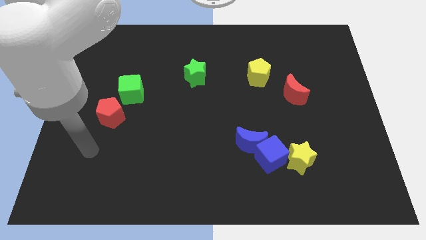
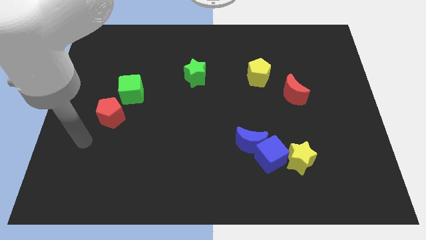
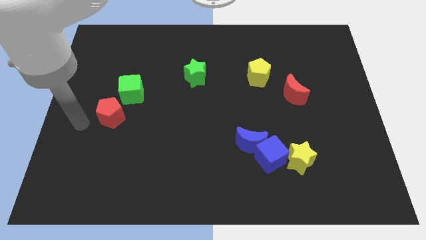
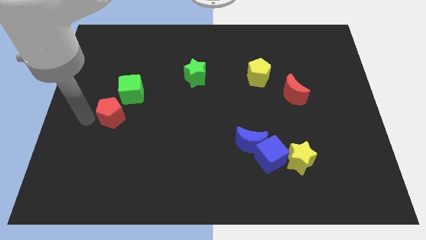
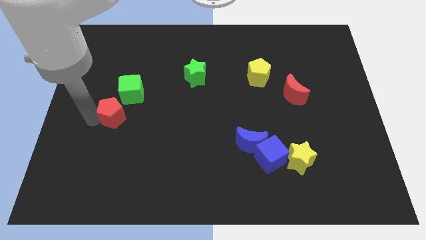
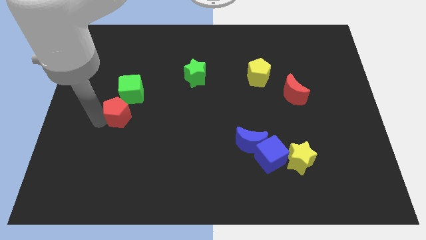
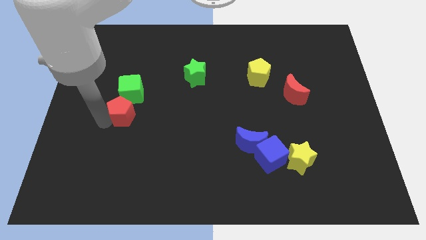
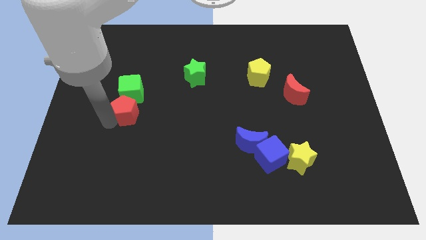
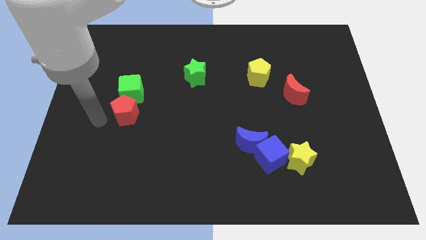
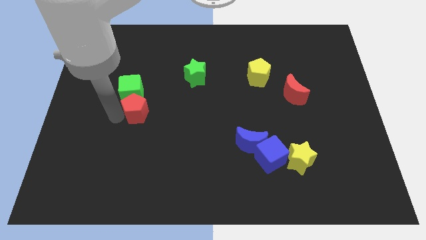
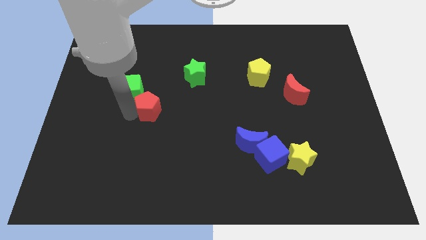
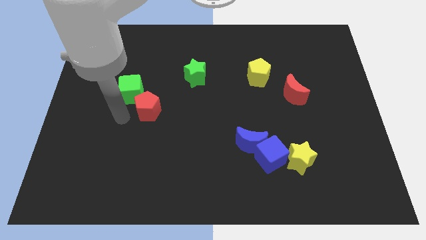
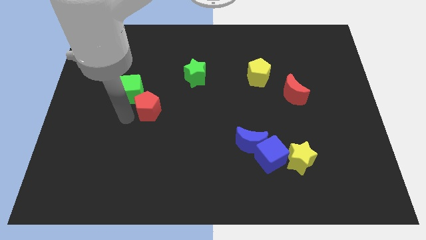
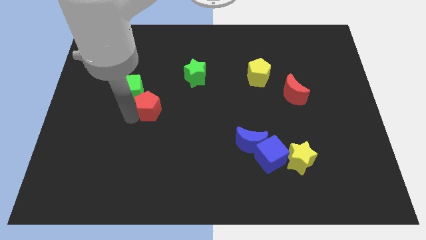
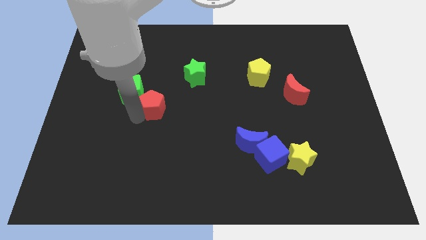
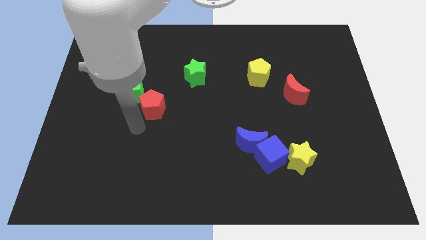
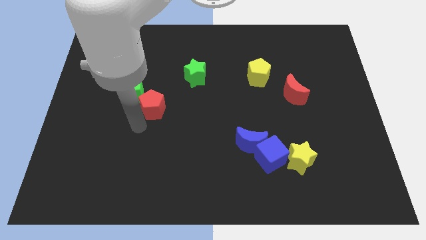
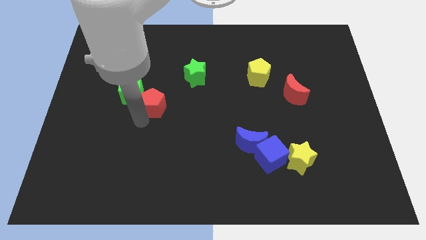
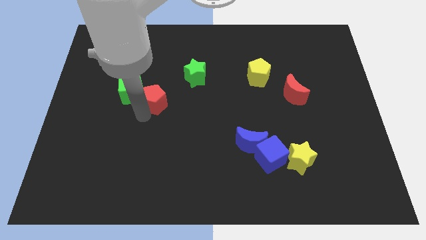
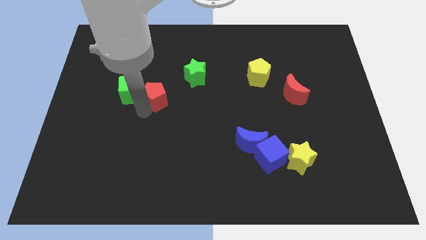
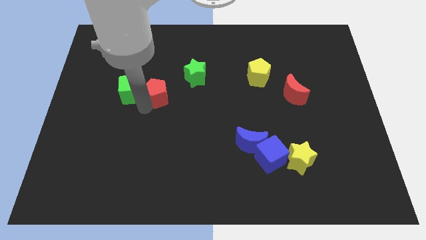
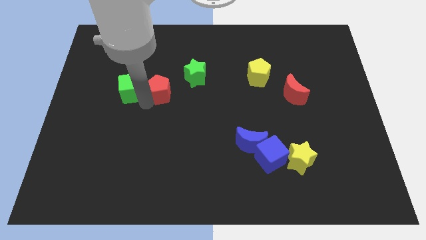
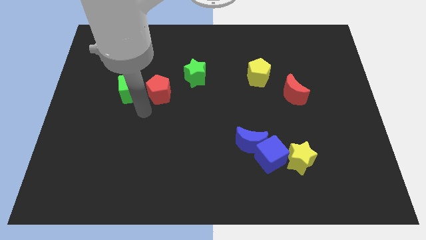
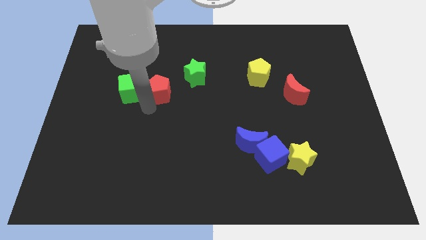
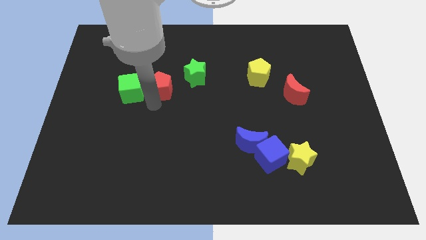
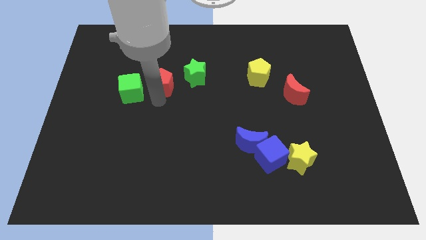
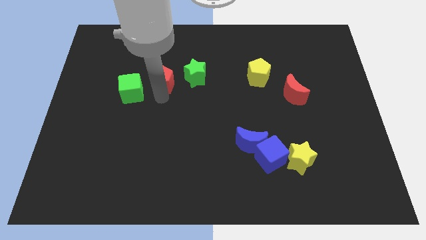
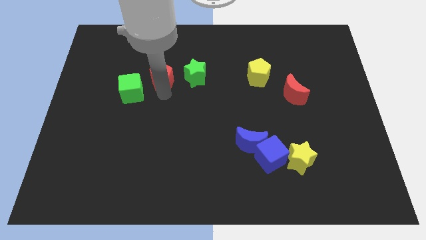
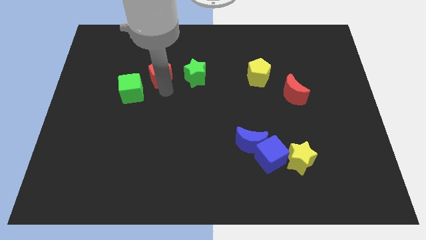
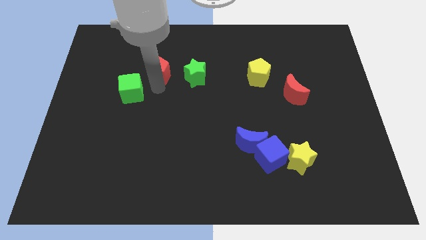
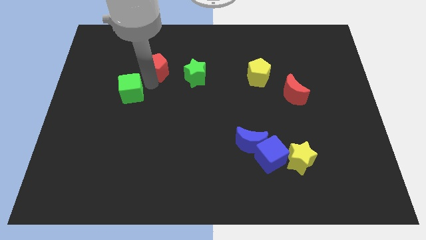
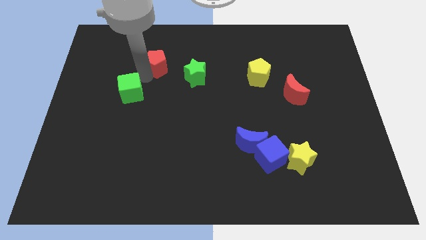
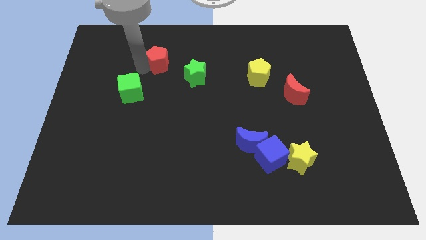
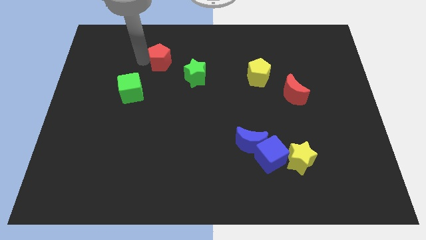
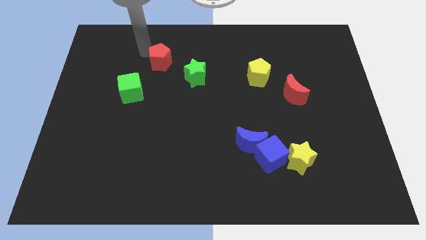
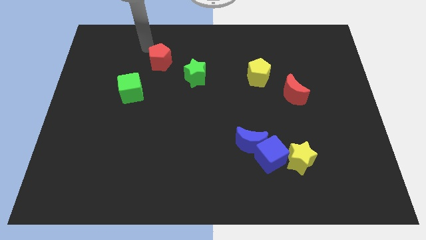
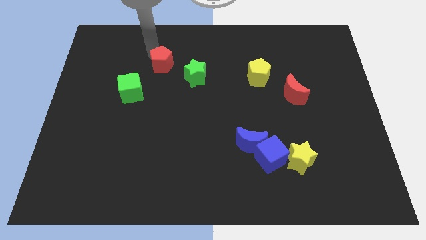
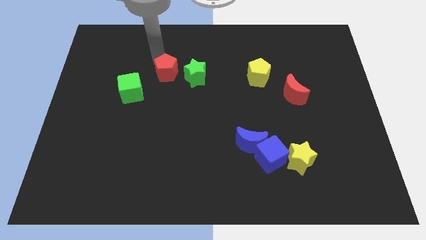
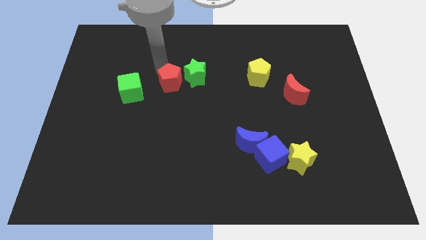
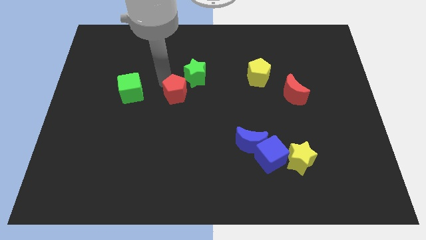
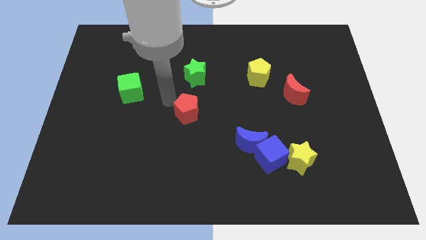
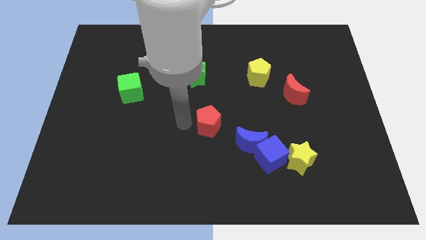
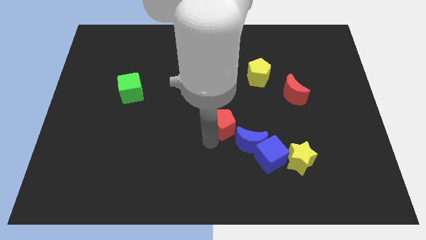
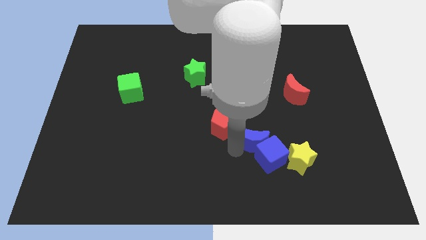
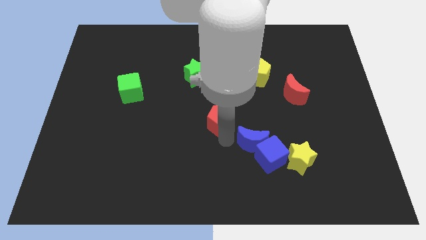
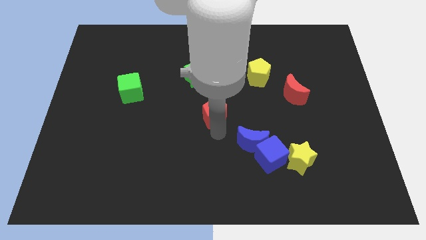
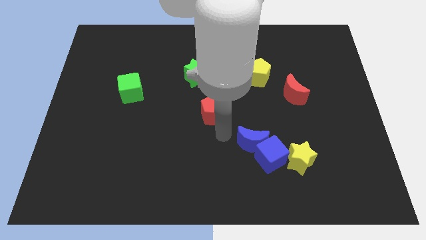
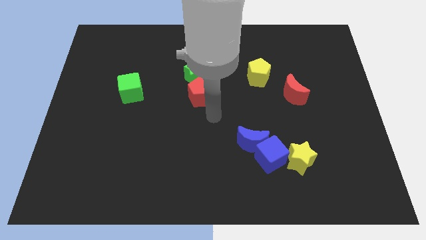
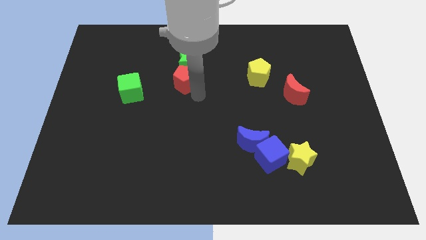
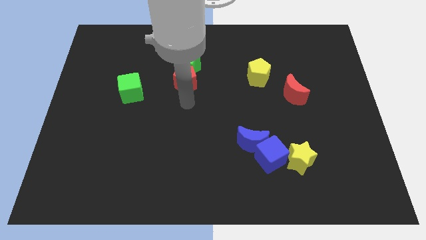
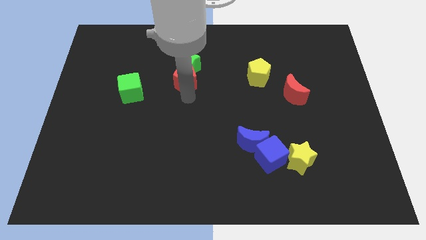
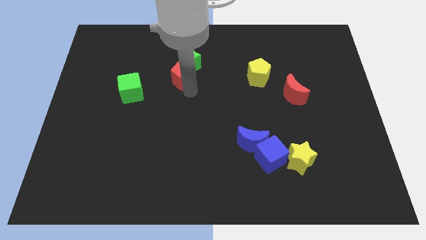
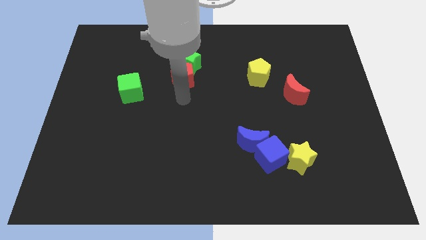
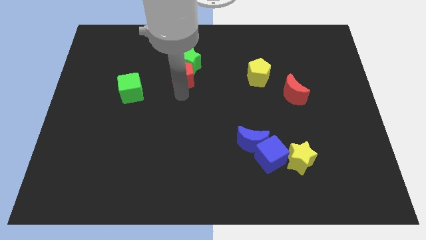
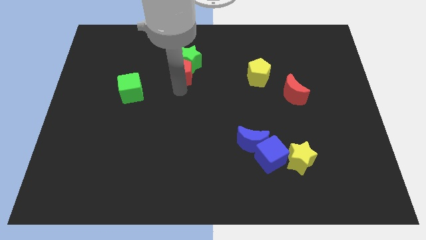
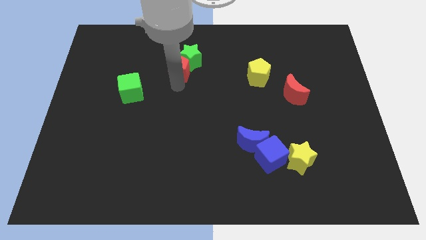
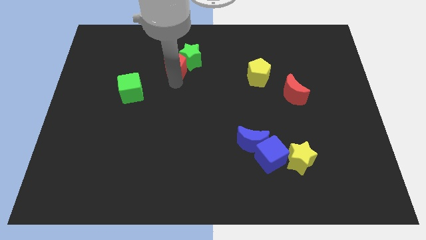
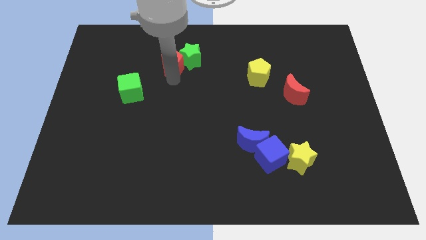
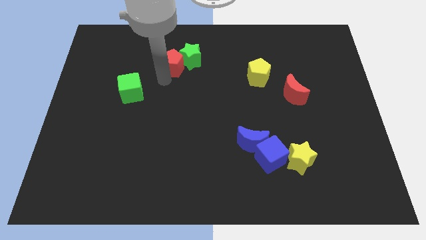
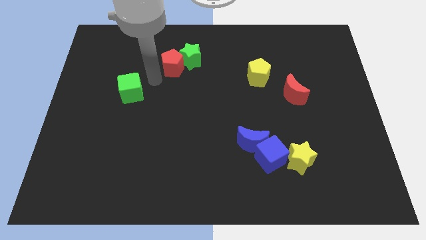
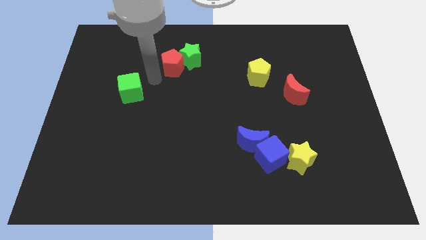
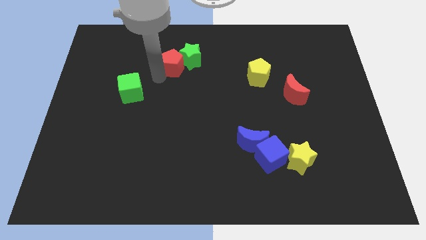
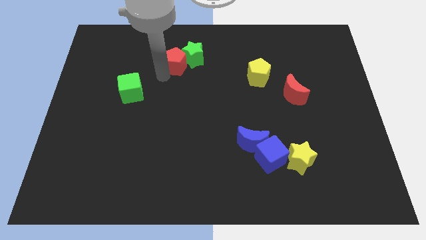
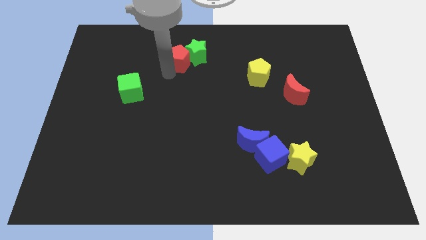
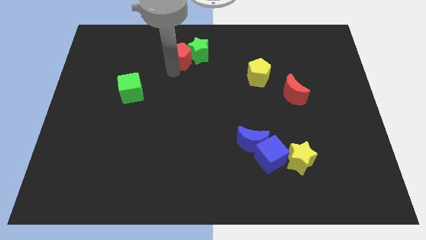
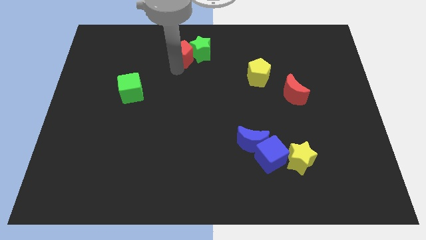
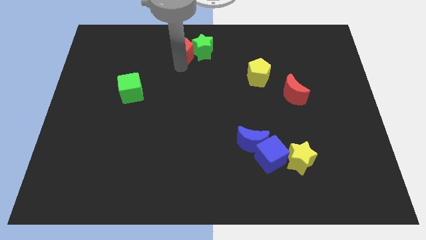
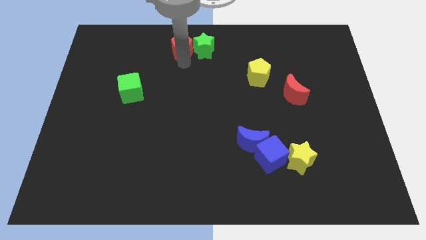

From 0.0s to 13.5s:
move the red pentagon to the towards your base
